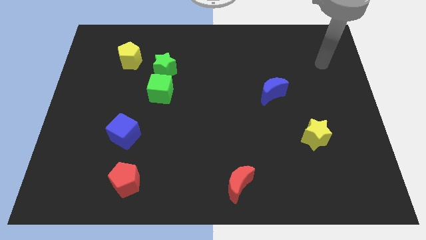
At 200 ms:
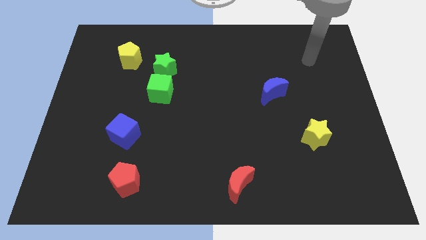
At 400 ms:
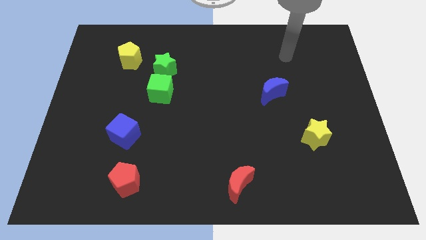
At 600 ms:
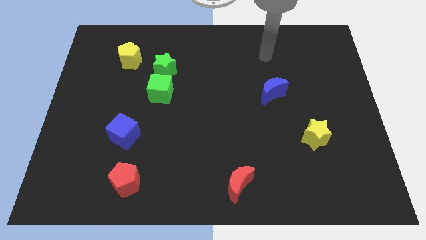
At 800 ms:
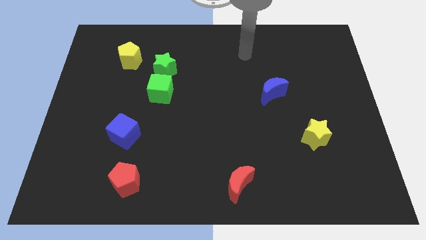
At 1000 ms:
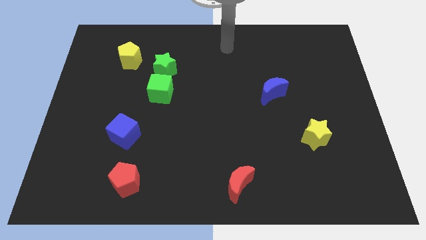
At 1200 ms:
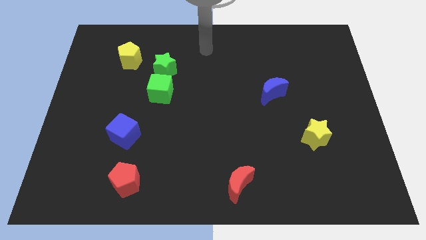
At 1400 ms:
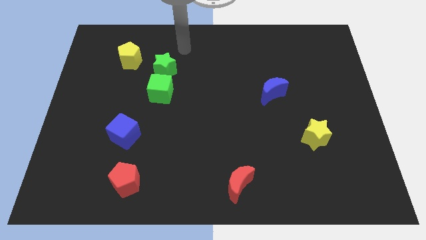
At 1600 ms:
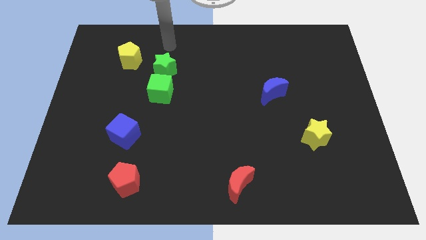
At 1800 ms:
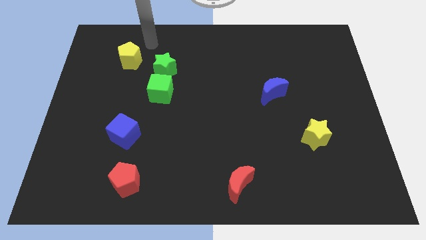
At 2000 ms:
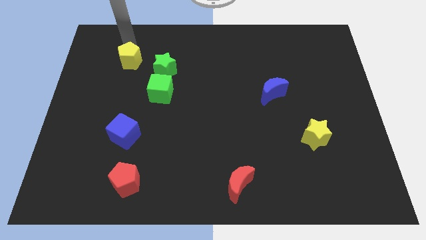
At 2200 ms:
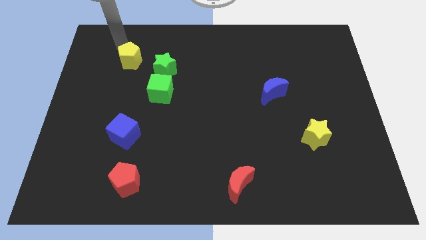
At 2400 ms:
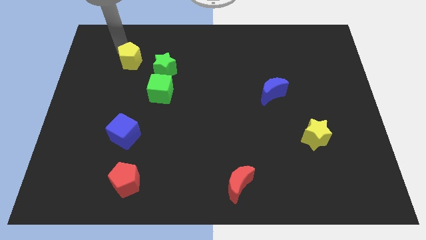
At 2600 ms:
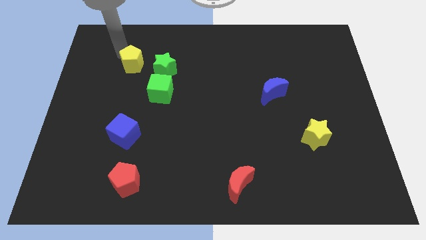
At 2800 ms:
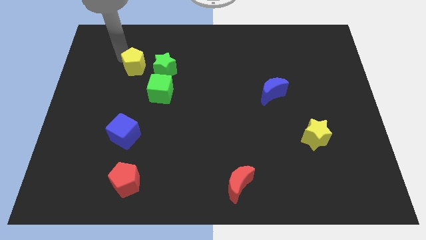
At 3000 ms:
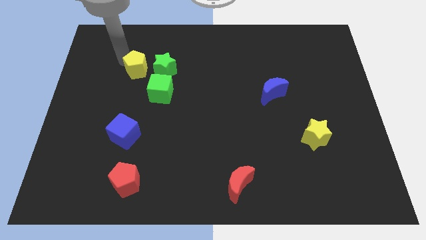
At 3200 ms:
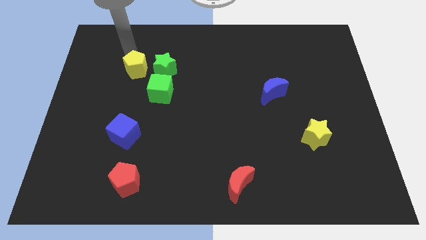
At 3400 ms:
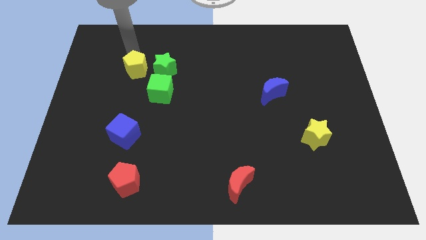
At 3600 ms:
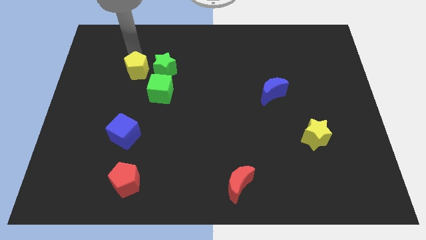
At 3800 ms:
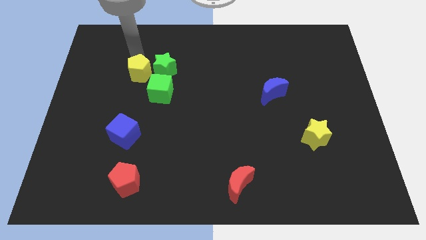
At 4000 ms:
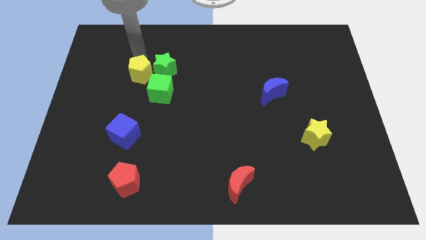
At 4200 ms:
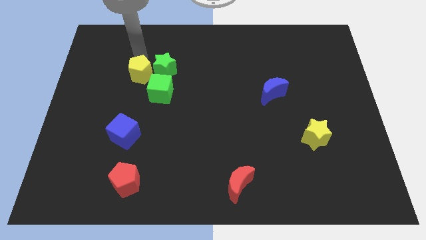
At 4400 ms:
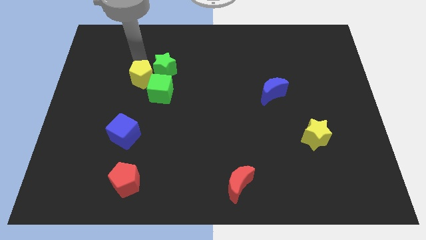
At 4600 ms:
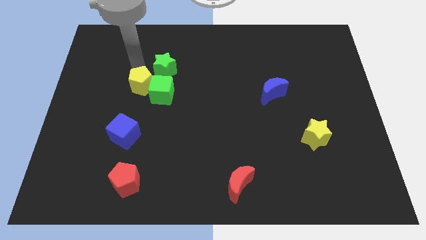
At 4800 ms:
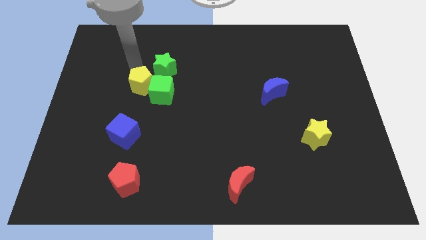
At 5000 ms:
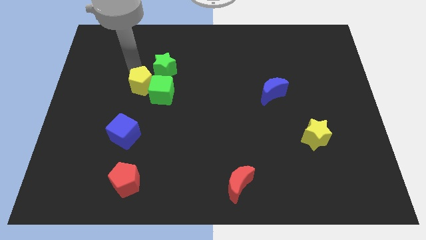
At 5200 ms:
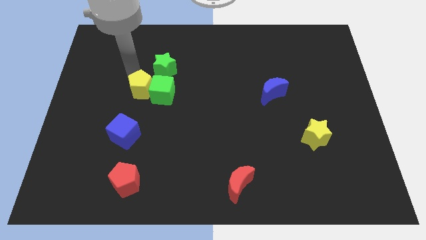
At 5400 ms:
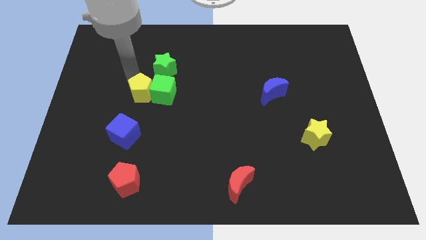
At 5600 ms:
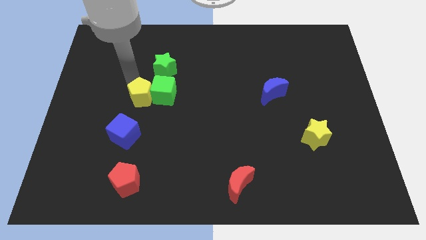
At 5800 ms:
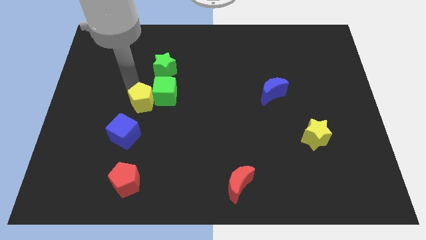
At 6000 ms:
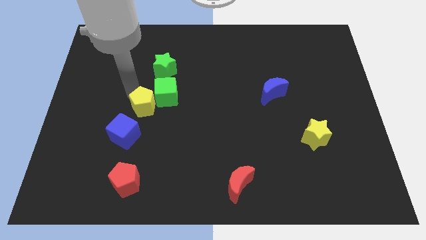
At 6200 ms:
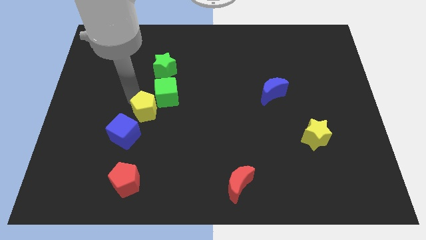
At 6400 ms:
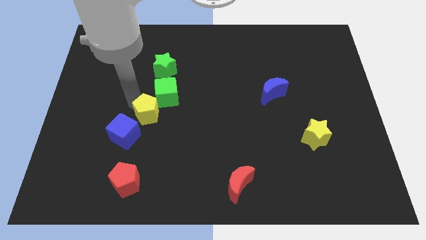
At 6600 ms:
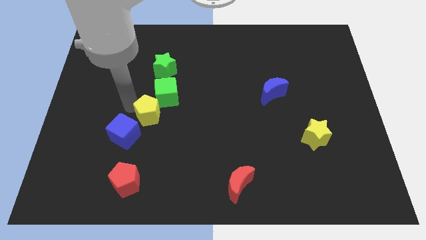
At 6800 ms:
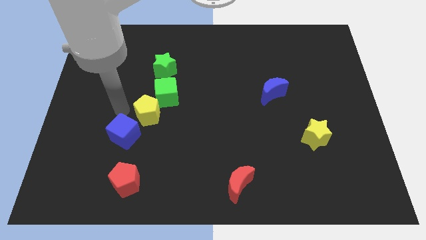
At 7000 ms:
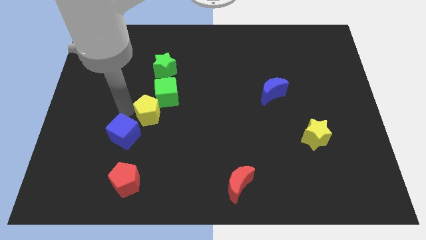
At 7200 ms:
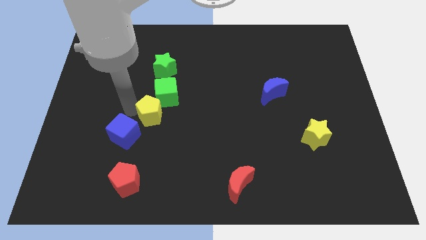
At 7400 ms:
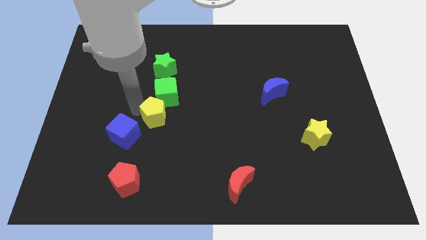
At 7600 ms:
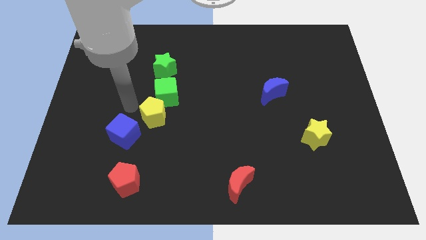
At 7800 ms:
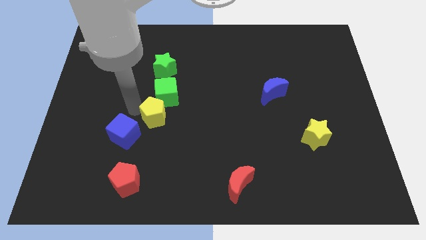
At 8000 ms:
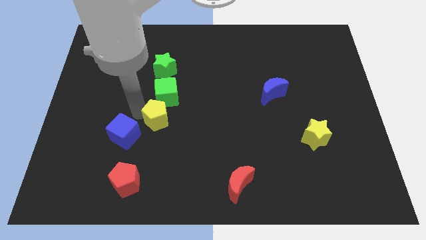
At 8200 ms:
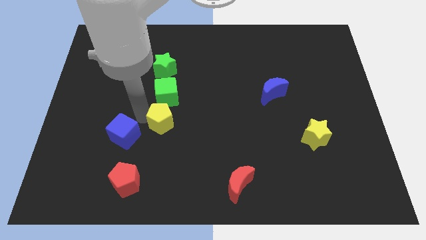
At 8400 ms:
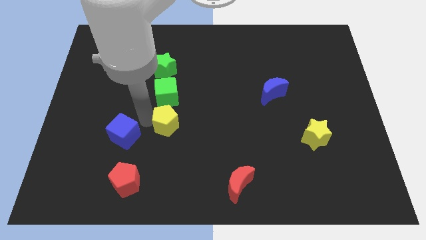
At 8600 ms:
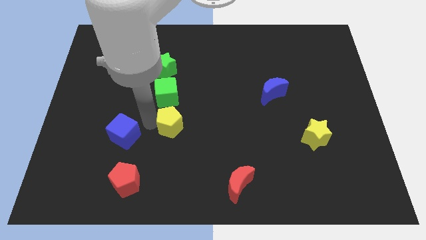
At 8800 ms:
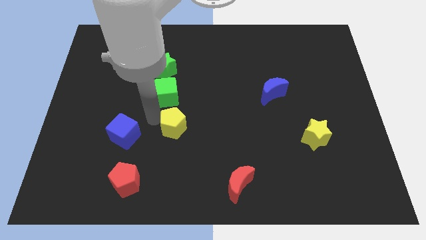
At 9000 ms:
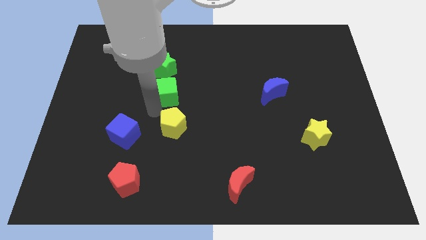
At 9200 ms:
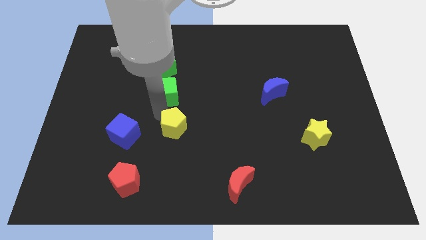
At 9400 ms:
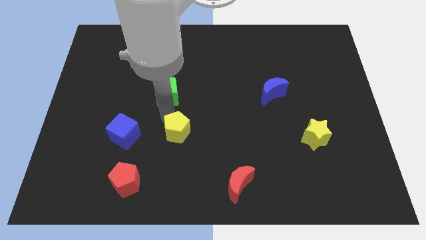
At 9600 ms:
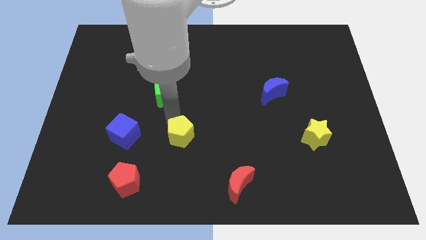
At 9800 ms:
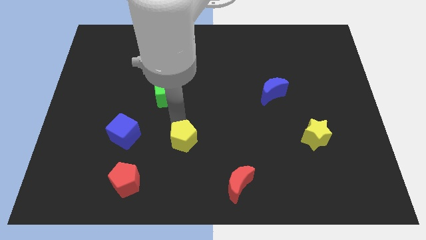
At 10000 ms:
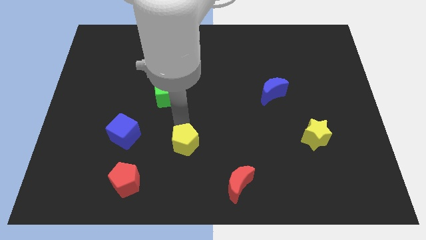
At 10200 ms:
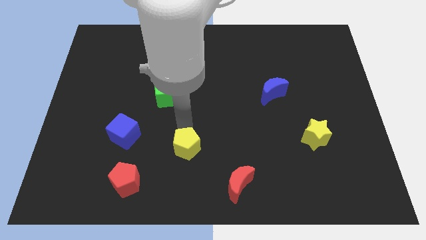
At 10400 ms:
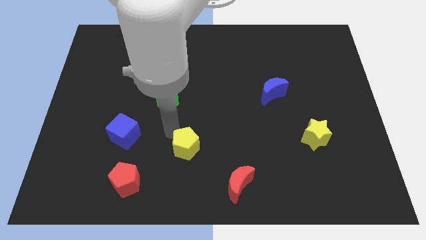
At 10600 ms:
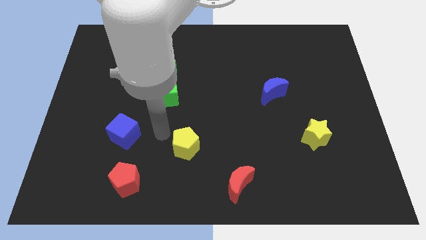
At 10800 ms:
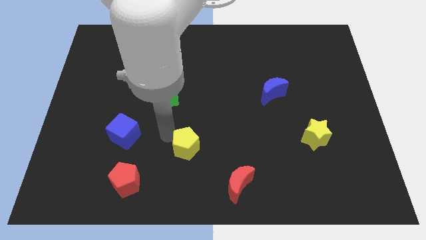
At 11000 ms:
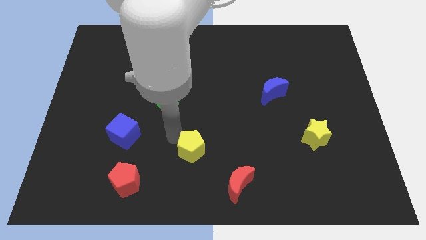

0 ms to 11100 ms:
slide the yellow pentagon to the top left of the red moon

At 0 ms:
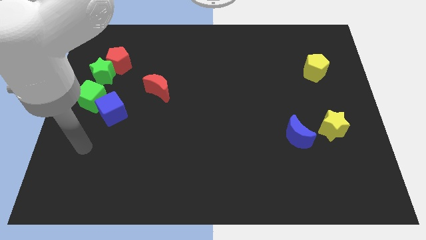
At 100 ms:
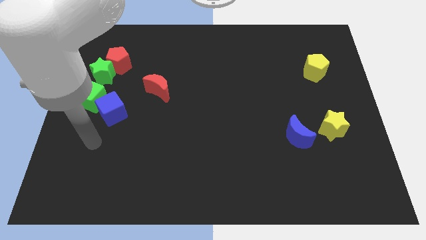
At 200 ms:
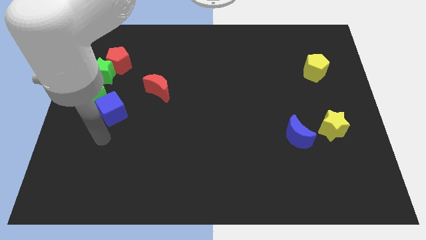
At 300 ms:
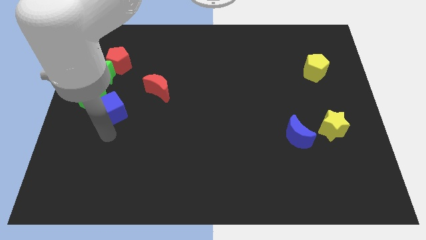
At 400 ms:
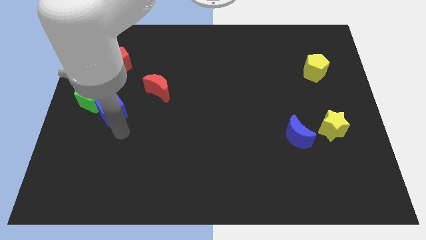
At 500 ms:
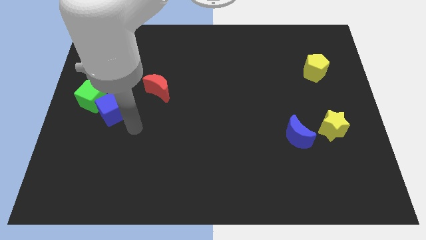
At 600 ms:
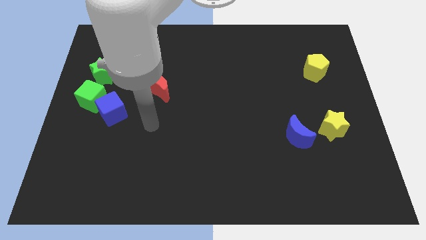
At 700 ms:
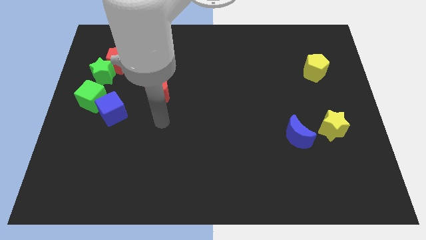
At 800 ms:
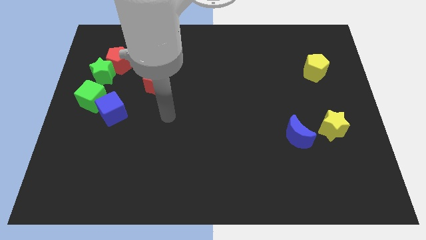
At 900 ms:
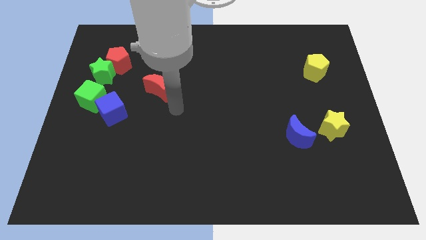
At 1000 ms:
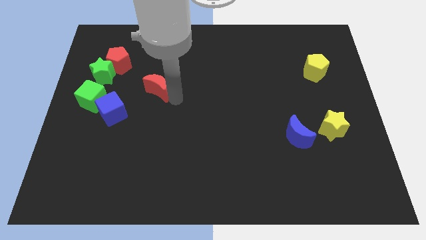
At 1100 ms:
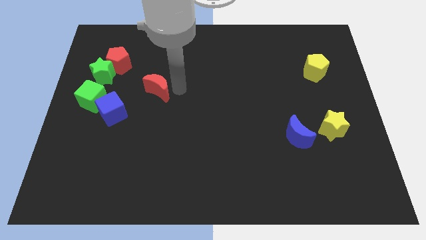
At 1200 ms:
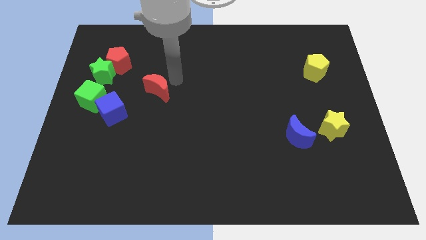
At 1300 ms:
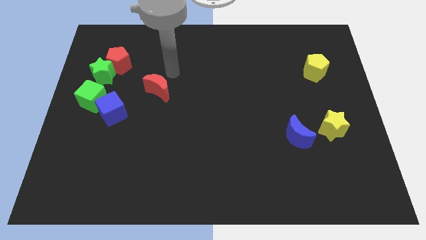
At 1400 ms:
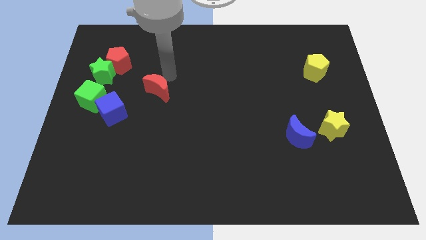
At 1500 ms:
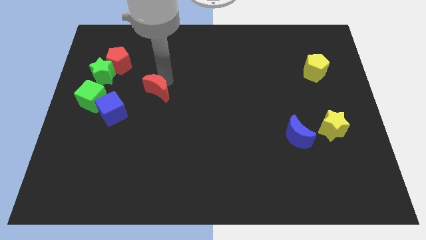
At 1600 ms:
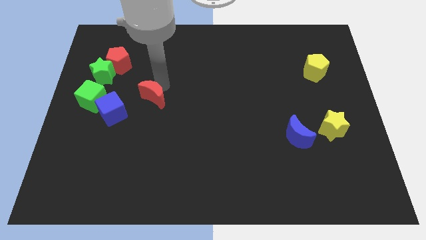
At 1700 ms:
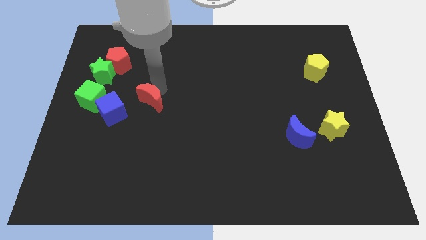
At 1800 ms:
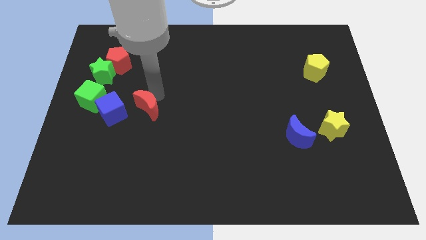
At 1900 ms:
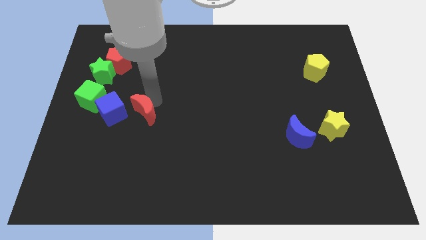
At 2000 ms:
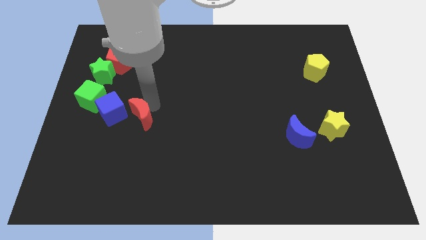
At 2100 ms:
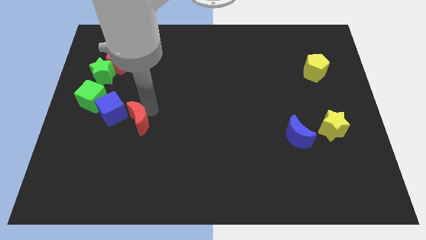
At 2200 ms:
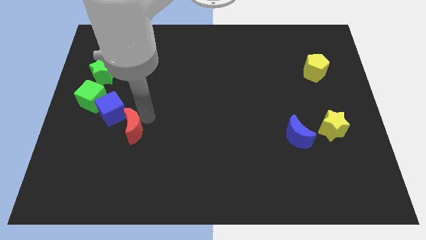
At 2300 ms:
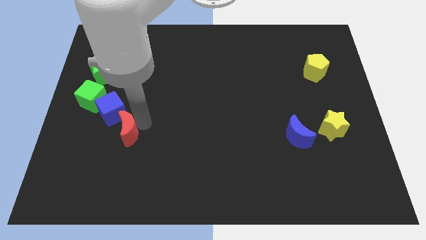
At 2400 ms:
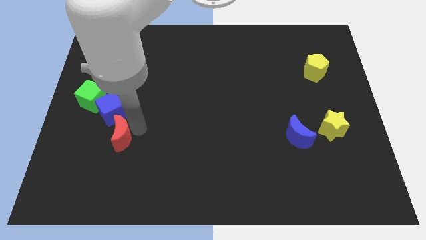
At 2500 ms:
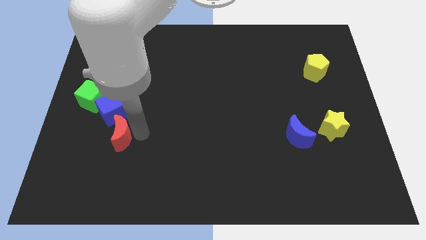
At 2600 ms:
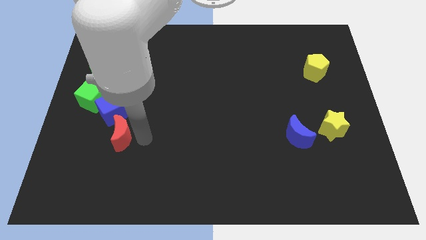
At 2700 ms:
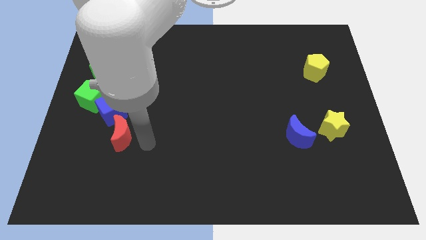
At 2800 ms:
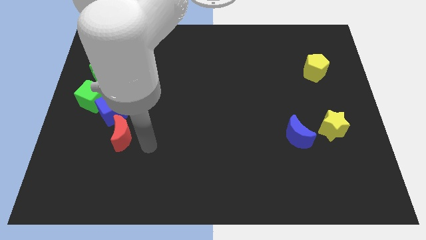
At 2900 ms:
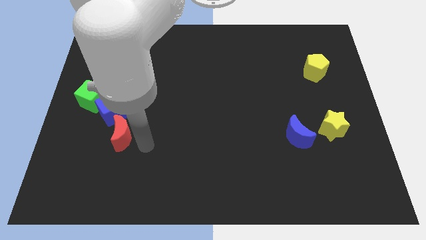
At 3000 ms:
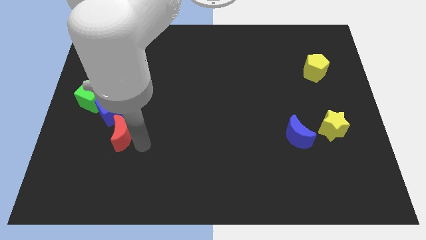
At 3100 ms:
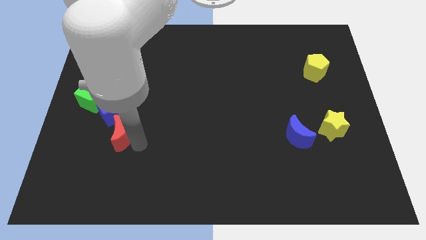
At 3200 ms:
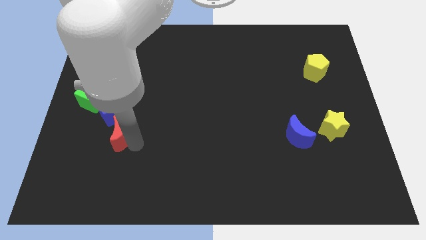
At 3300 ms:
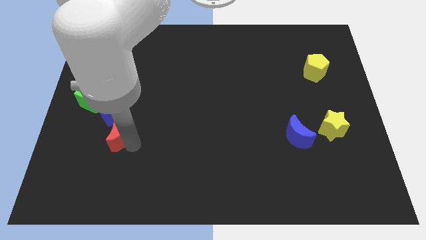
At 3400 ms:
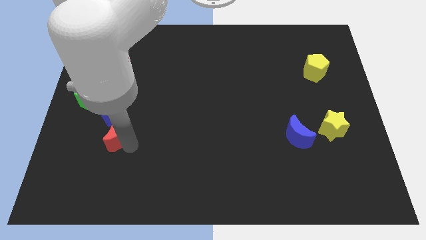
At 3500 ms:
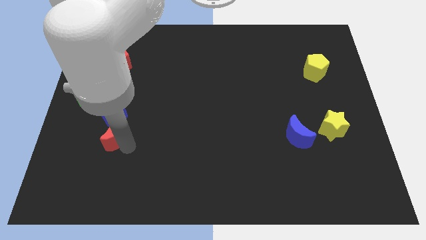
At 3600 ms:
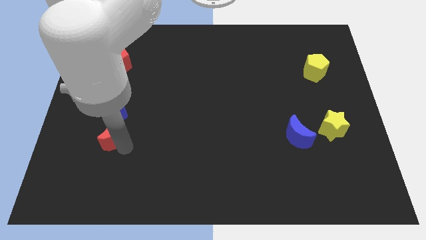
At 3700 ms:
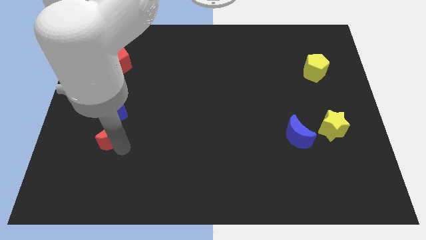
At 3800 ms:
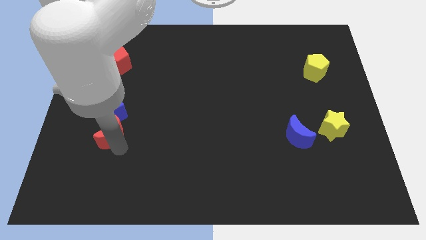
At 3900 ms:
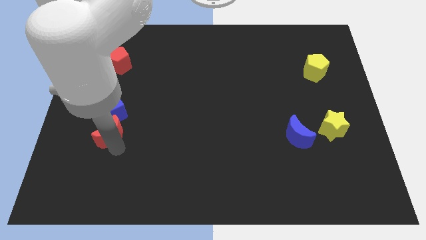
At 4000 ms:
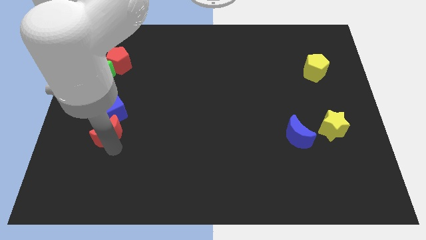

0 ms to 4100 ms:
slide the red moon to the bottom left side of the blue cube
